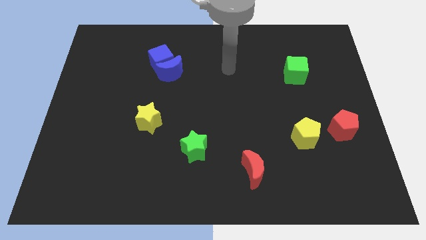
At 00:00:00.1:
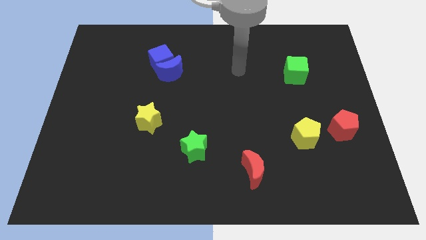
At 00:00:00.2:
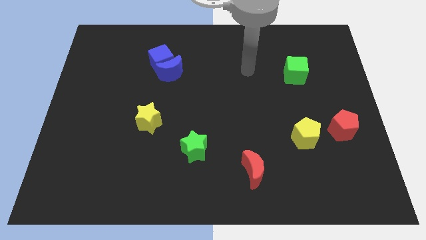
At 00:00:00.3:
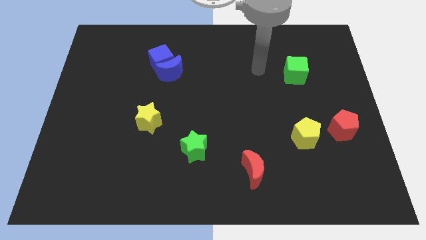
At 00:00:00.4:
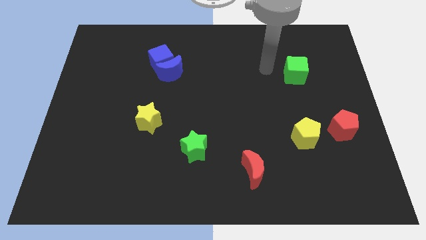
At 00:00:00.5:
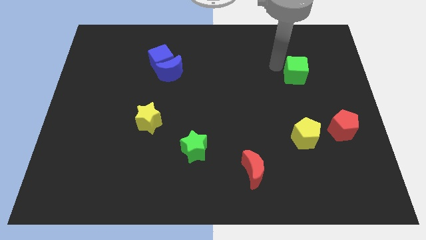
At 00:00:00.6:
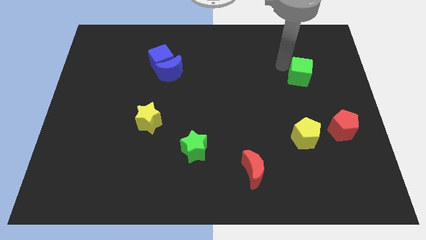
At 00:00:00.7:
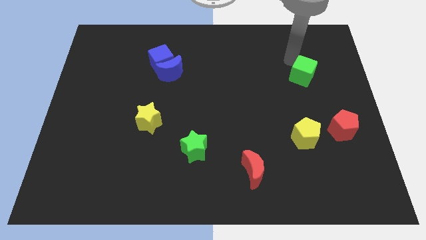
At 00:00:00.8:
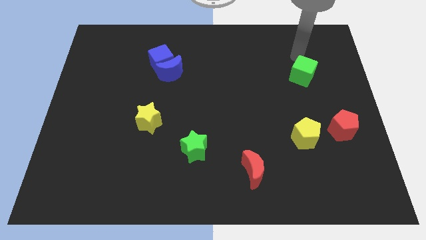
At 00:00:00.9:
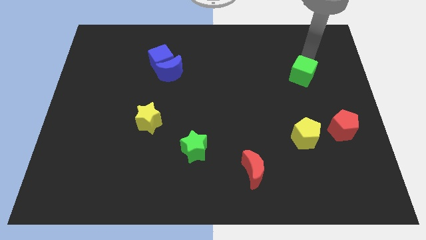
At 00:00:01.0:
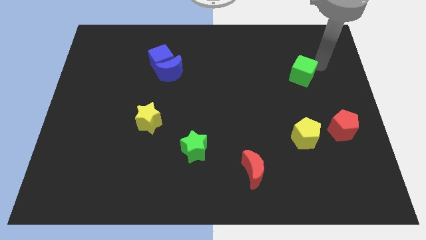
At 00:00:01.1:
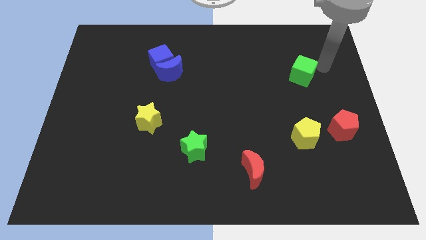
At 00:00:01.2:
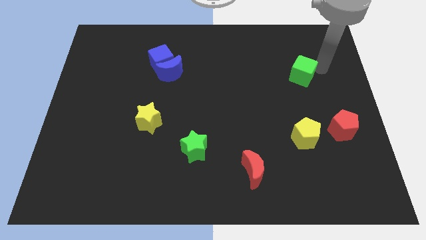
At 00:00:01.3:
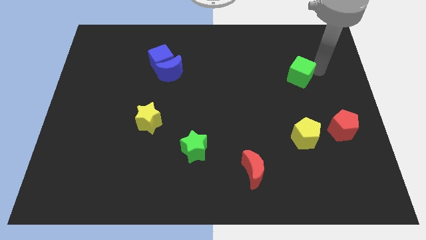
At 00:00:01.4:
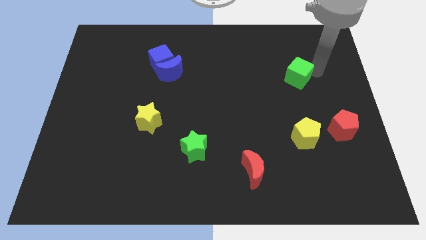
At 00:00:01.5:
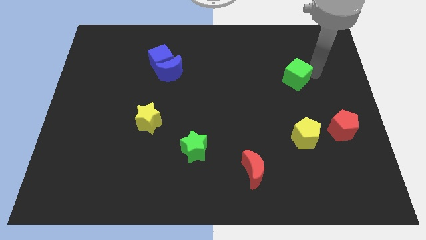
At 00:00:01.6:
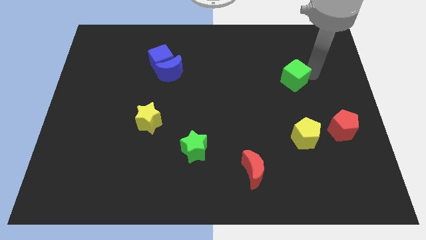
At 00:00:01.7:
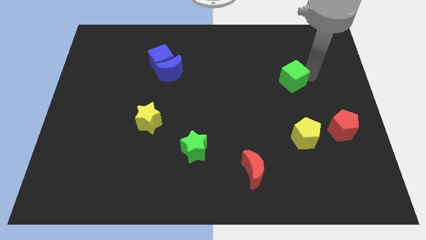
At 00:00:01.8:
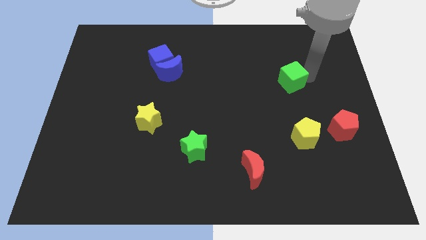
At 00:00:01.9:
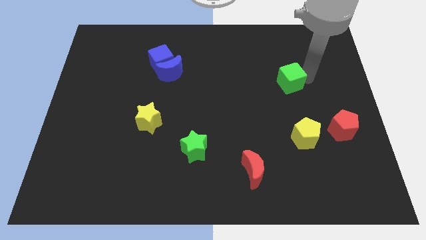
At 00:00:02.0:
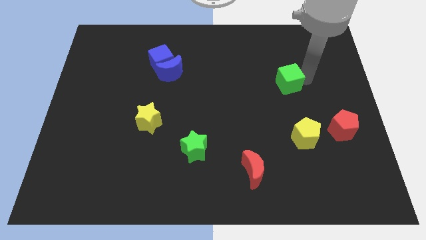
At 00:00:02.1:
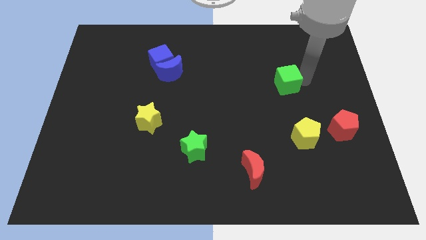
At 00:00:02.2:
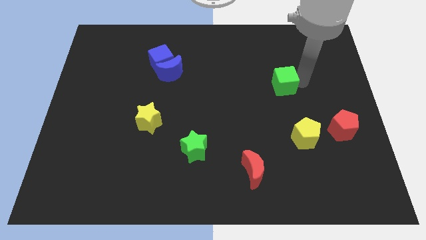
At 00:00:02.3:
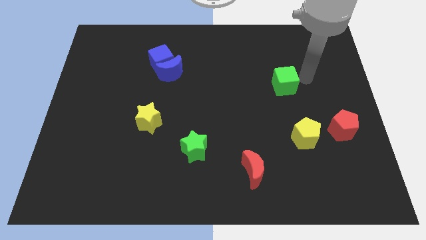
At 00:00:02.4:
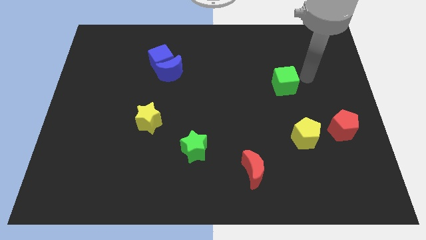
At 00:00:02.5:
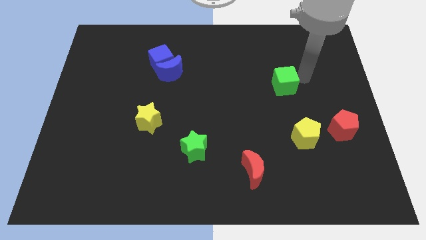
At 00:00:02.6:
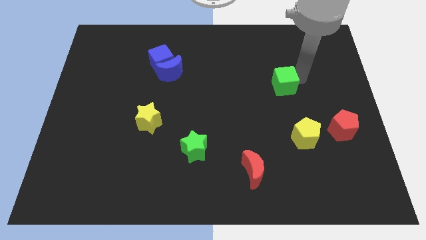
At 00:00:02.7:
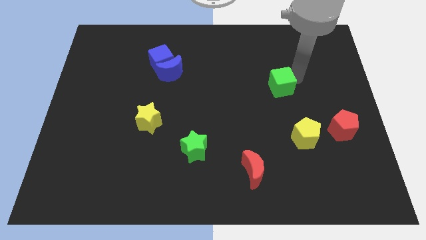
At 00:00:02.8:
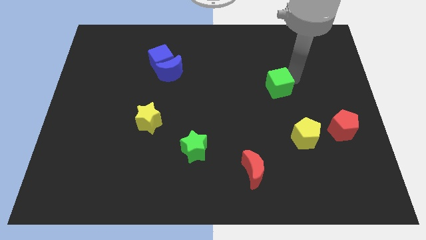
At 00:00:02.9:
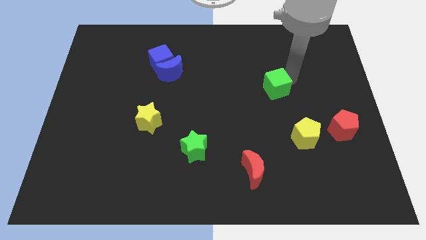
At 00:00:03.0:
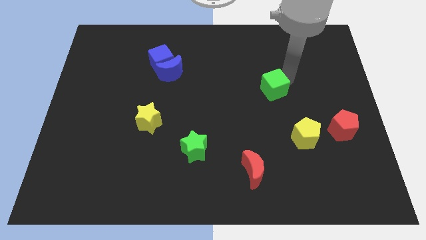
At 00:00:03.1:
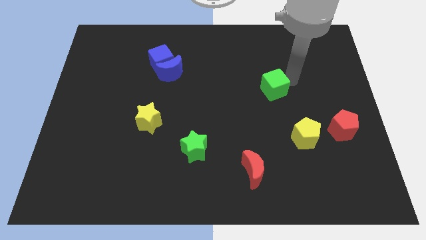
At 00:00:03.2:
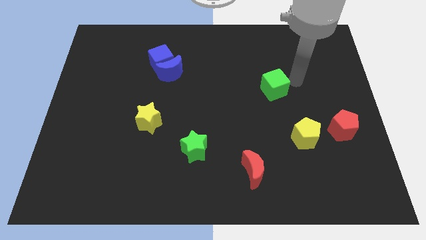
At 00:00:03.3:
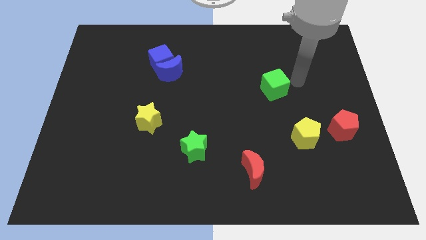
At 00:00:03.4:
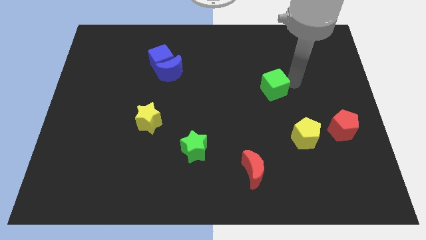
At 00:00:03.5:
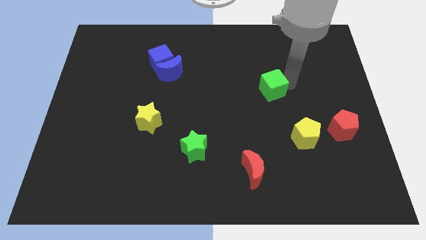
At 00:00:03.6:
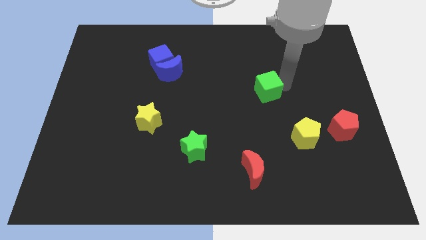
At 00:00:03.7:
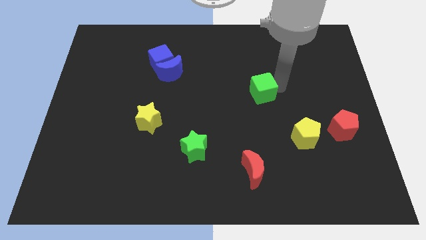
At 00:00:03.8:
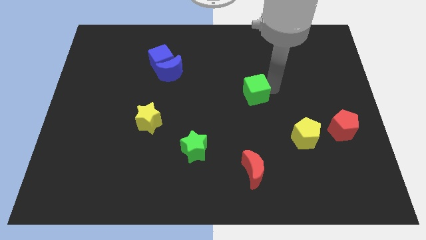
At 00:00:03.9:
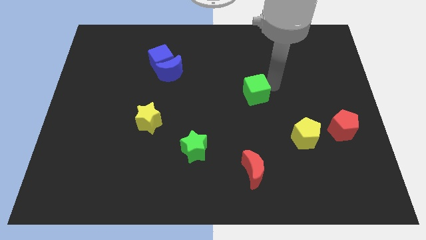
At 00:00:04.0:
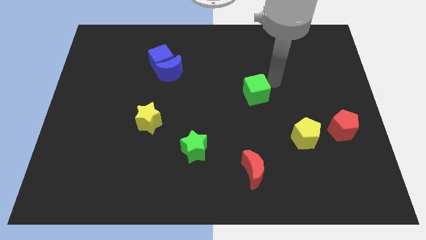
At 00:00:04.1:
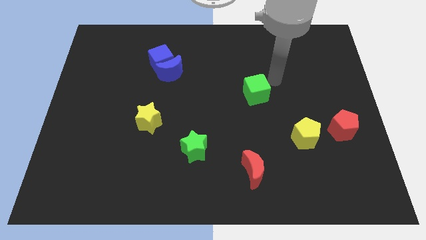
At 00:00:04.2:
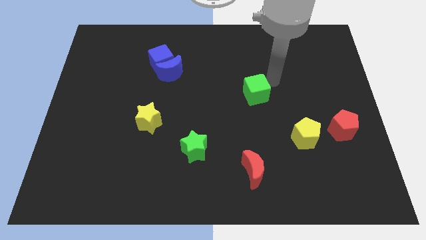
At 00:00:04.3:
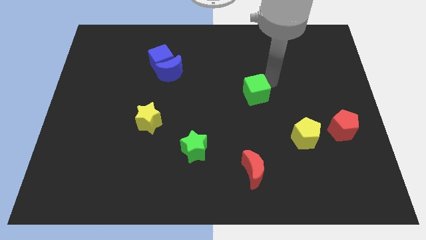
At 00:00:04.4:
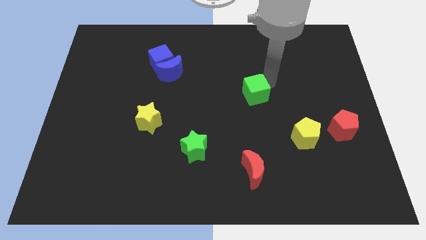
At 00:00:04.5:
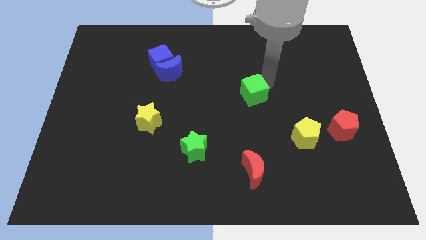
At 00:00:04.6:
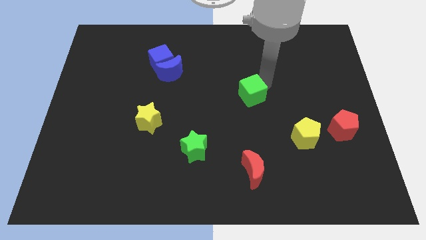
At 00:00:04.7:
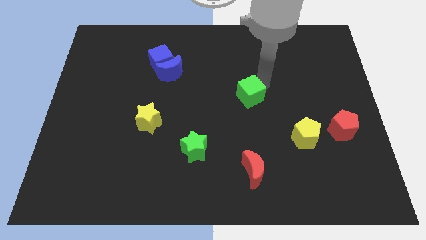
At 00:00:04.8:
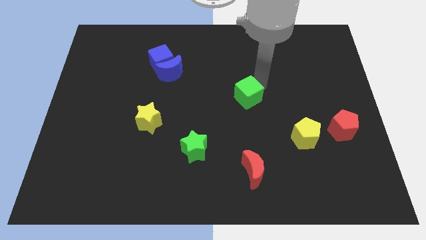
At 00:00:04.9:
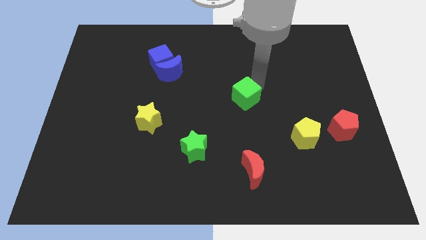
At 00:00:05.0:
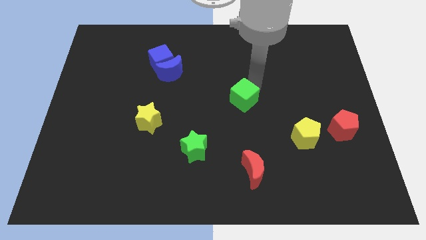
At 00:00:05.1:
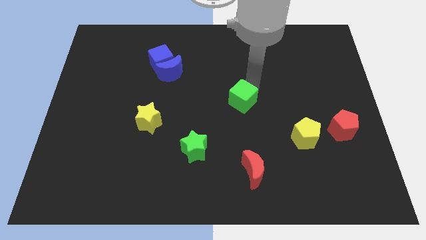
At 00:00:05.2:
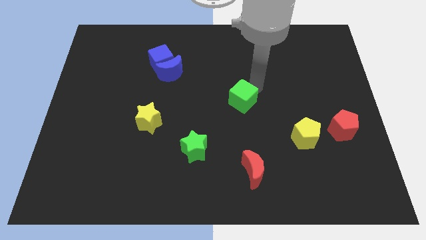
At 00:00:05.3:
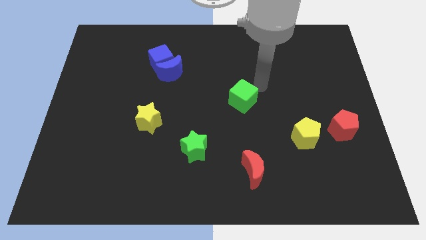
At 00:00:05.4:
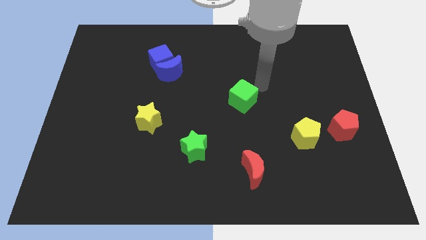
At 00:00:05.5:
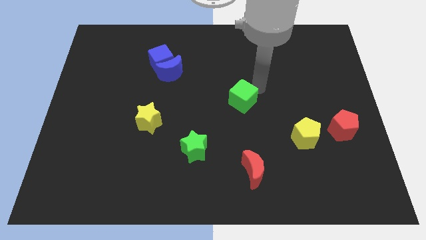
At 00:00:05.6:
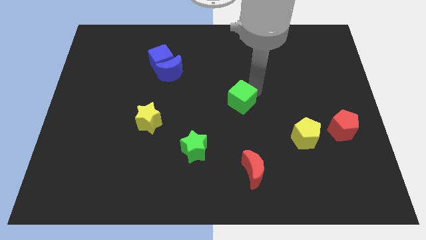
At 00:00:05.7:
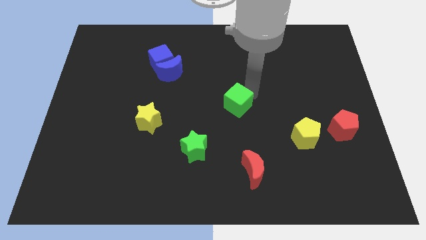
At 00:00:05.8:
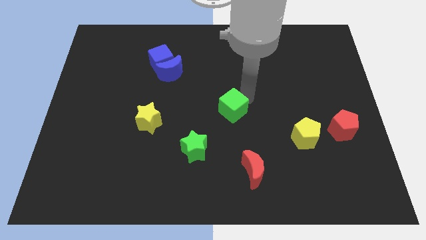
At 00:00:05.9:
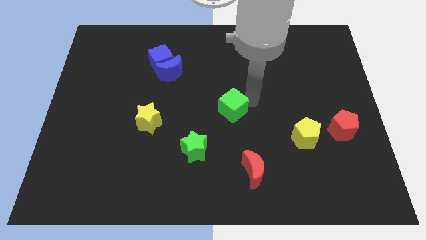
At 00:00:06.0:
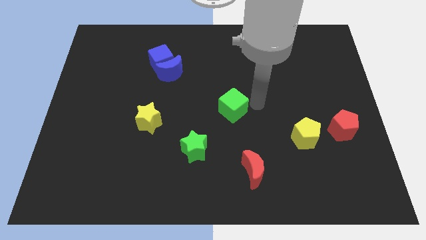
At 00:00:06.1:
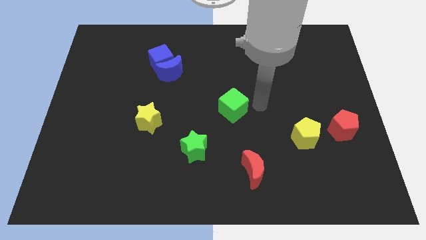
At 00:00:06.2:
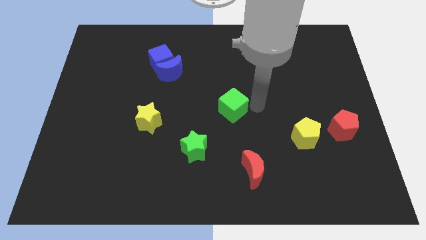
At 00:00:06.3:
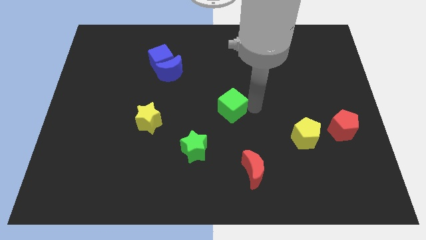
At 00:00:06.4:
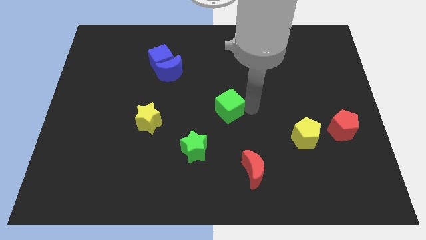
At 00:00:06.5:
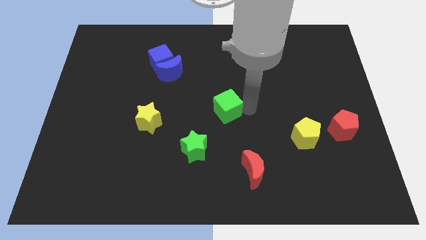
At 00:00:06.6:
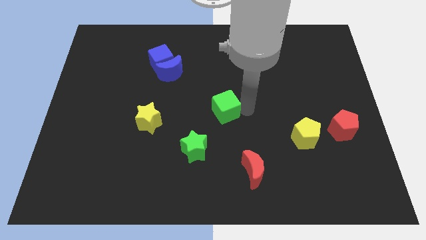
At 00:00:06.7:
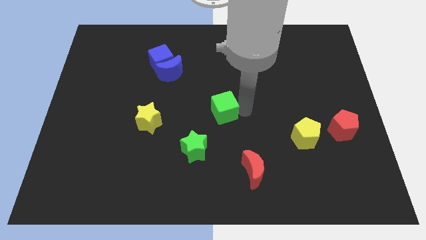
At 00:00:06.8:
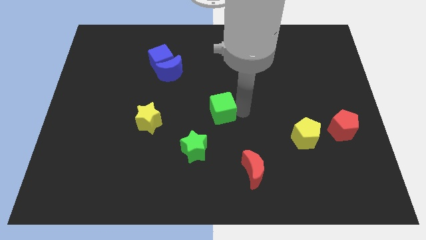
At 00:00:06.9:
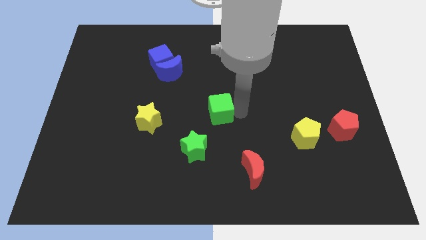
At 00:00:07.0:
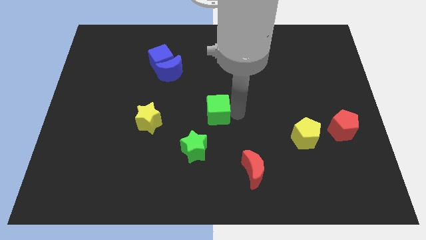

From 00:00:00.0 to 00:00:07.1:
put the green cube to the right side of the yellow star
